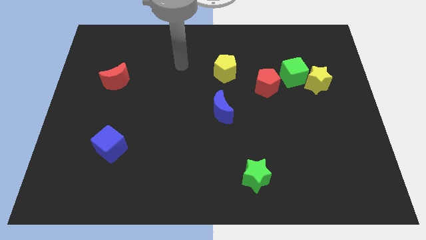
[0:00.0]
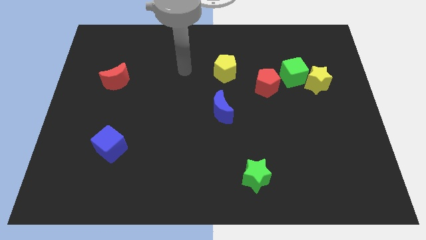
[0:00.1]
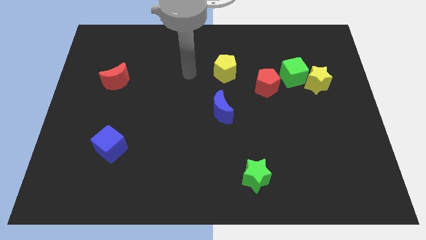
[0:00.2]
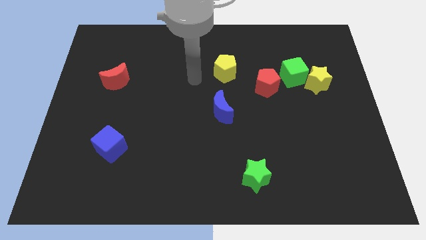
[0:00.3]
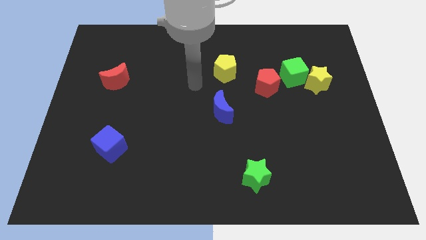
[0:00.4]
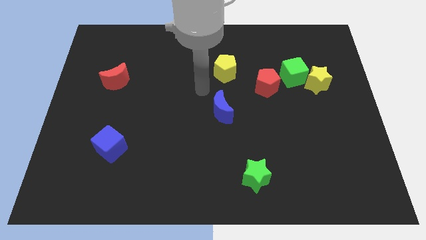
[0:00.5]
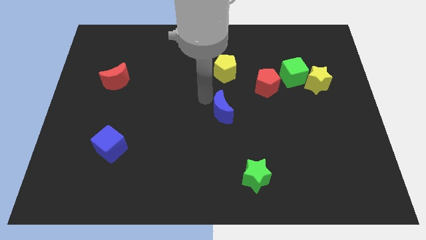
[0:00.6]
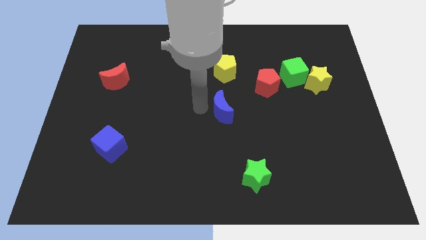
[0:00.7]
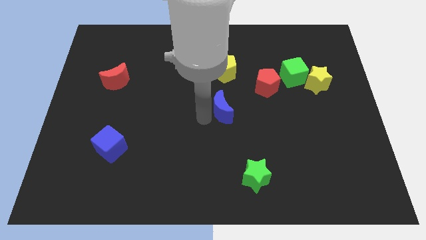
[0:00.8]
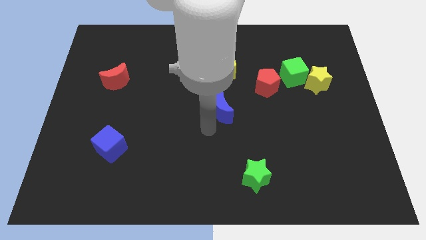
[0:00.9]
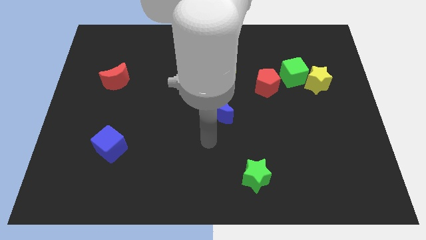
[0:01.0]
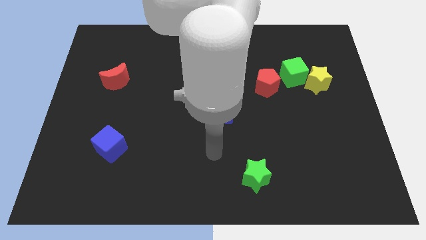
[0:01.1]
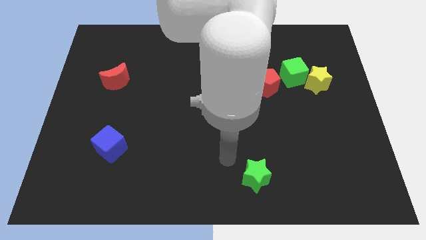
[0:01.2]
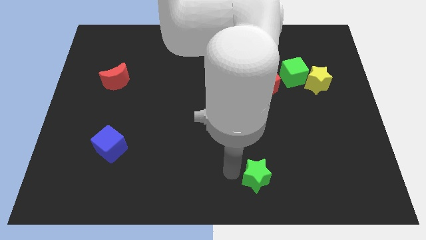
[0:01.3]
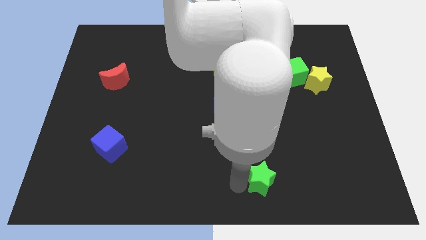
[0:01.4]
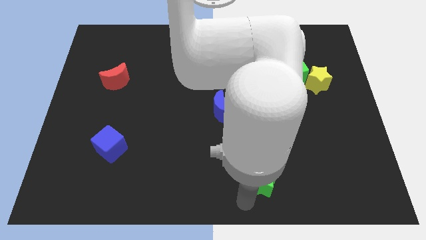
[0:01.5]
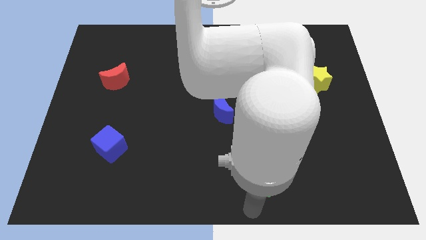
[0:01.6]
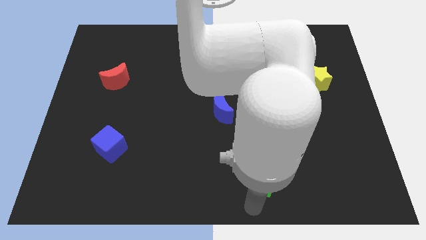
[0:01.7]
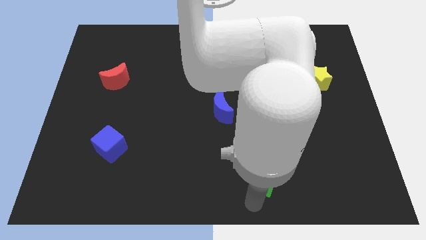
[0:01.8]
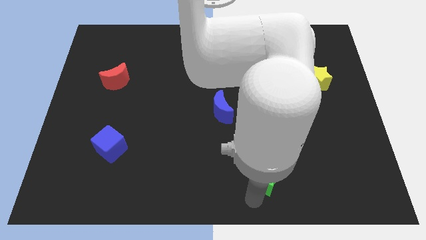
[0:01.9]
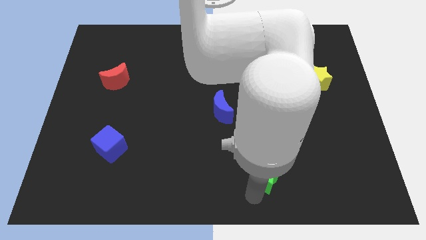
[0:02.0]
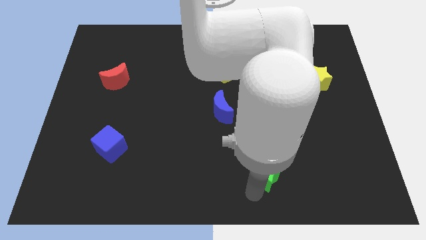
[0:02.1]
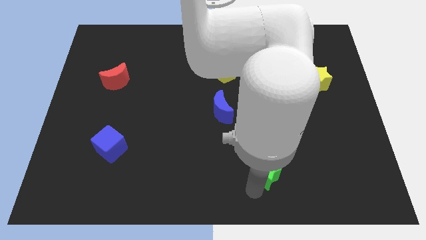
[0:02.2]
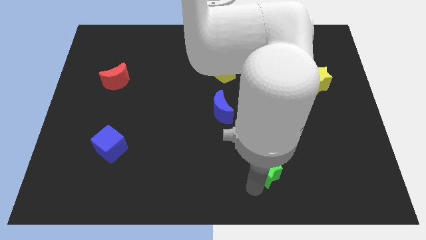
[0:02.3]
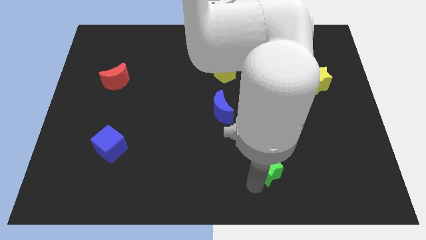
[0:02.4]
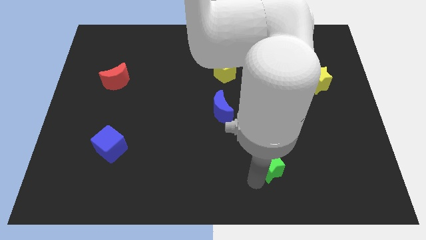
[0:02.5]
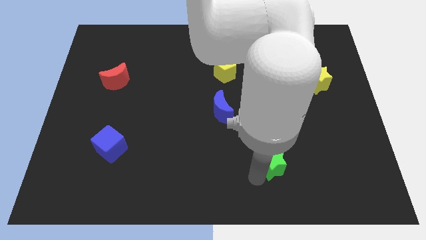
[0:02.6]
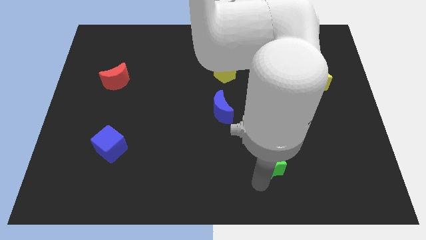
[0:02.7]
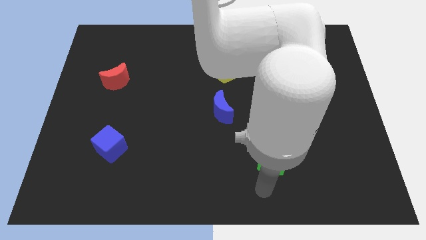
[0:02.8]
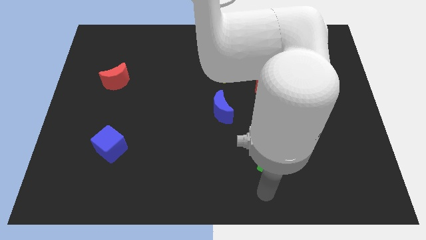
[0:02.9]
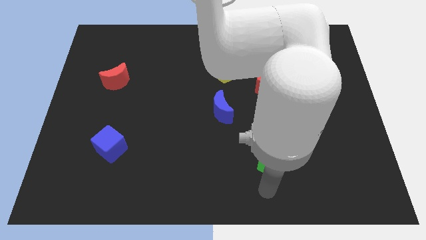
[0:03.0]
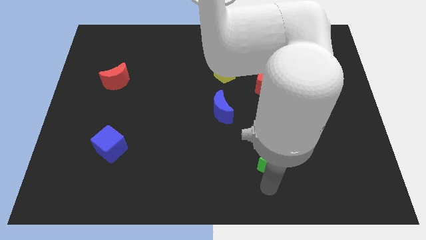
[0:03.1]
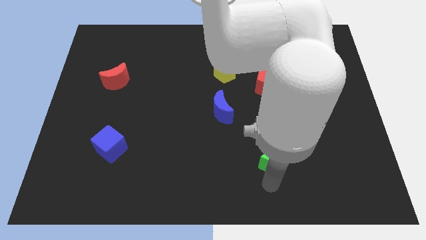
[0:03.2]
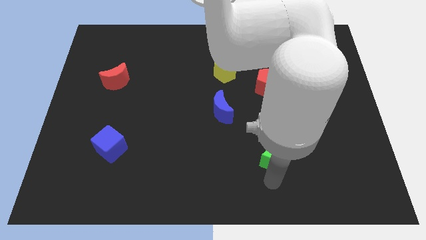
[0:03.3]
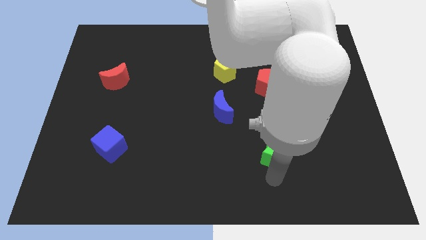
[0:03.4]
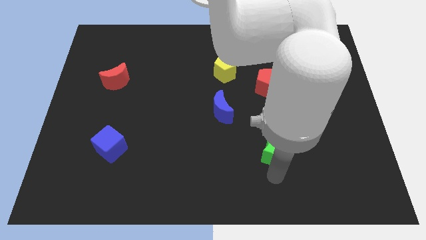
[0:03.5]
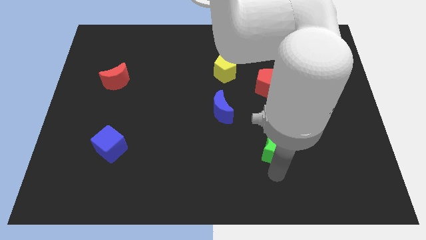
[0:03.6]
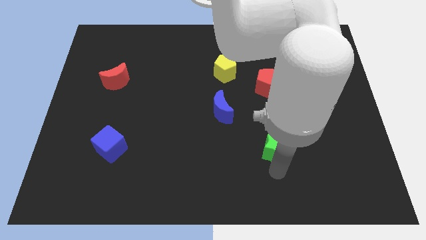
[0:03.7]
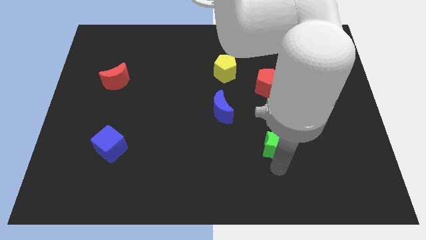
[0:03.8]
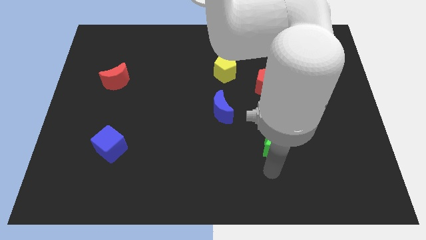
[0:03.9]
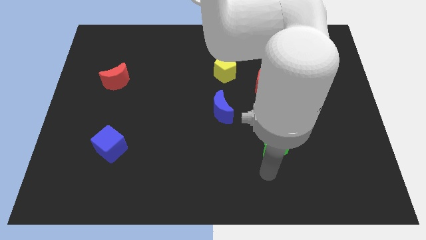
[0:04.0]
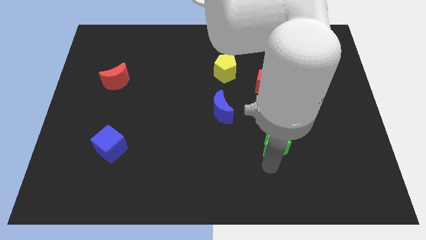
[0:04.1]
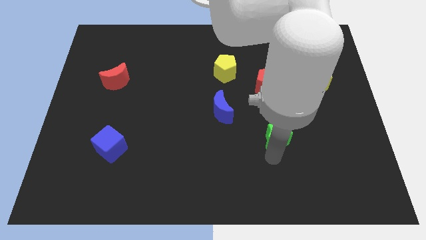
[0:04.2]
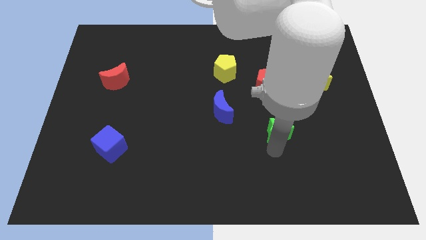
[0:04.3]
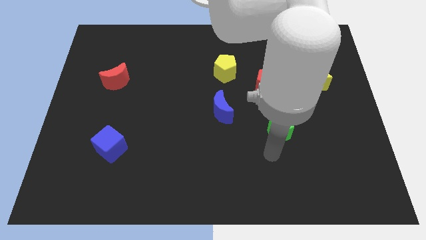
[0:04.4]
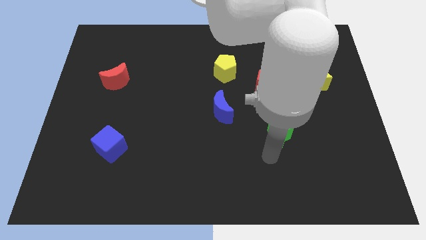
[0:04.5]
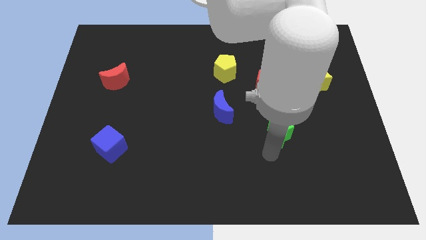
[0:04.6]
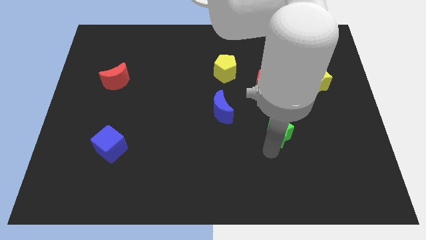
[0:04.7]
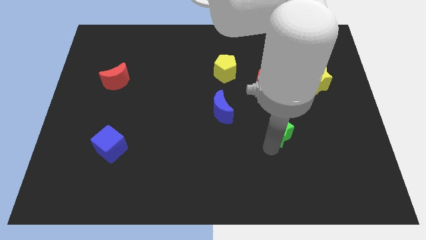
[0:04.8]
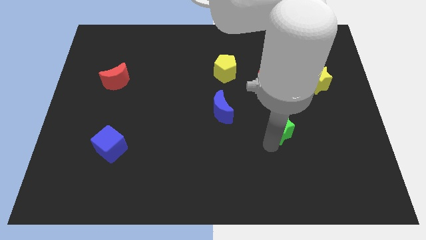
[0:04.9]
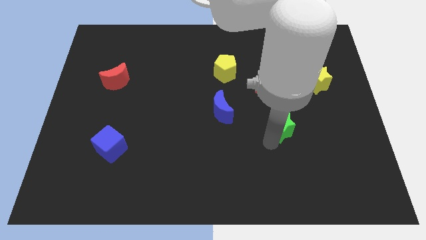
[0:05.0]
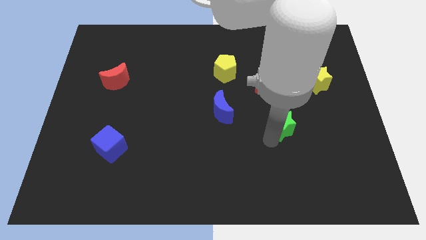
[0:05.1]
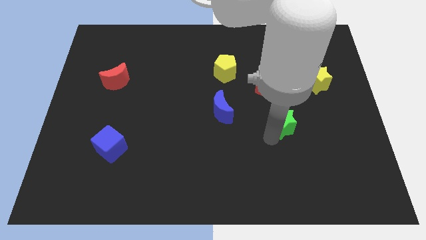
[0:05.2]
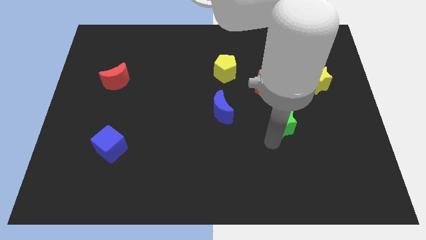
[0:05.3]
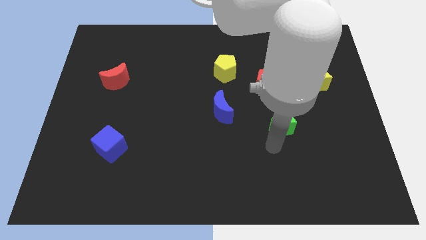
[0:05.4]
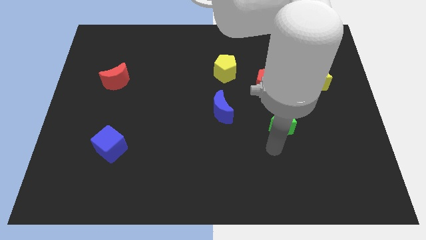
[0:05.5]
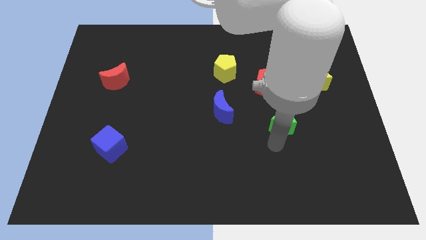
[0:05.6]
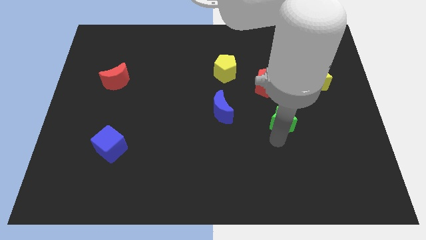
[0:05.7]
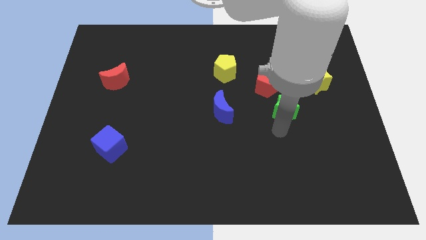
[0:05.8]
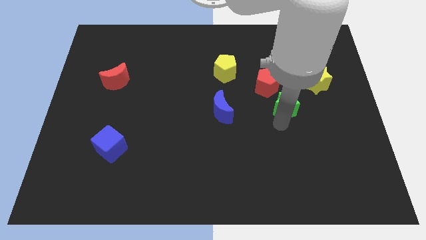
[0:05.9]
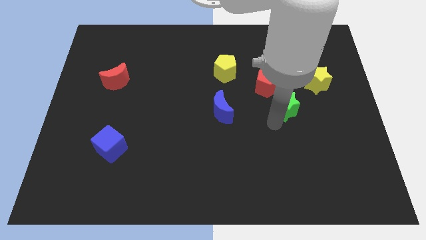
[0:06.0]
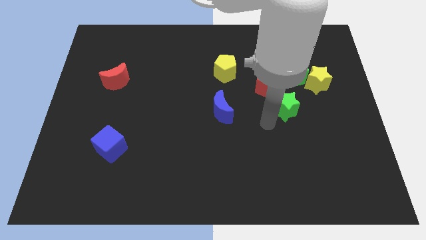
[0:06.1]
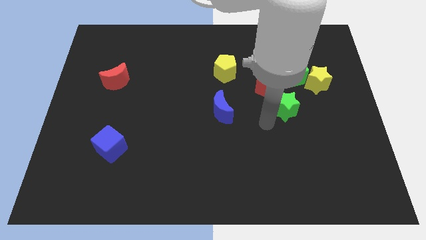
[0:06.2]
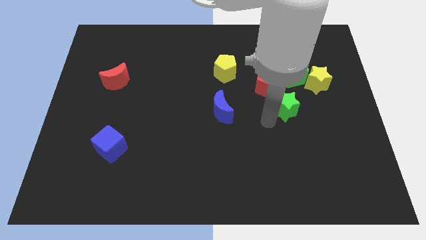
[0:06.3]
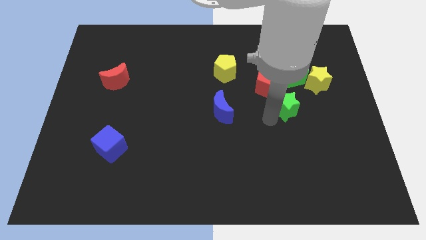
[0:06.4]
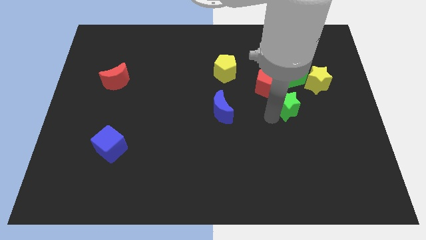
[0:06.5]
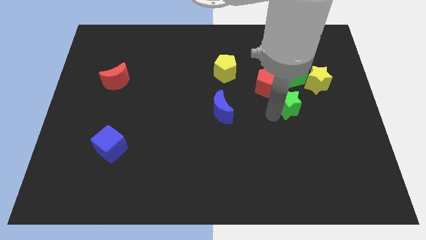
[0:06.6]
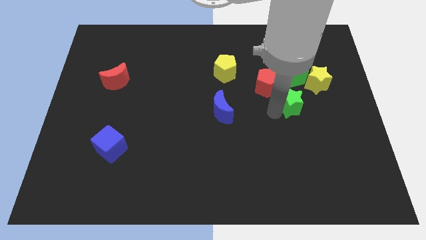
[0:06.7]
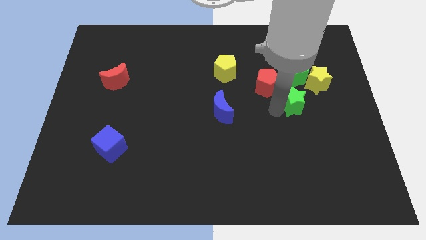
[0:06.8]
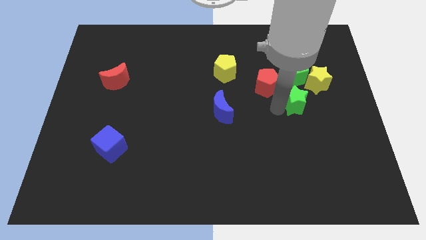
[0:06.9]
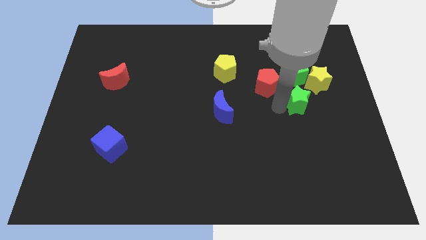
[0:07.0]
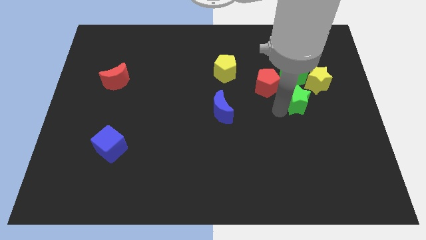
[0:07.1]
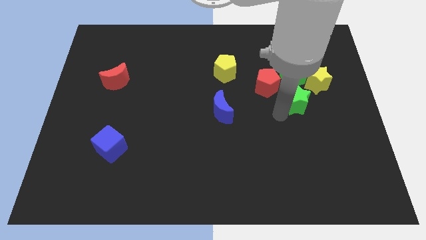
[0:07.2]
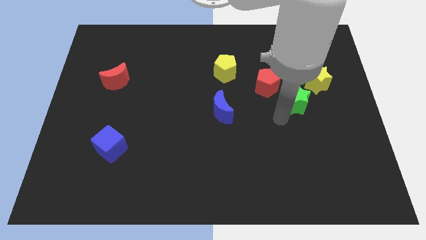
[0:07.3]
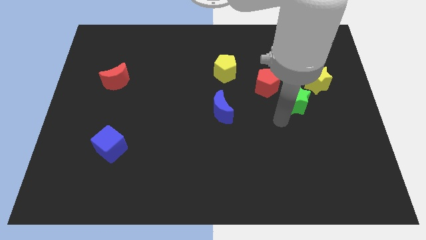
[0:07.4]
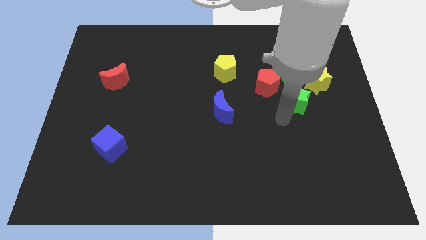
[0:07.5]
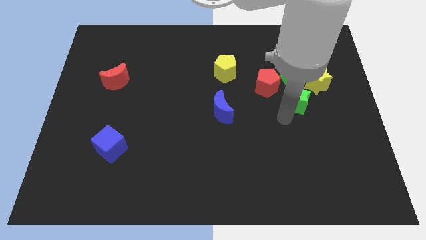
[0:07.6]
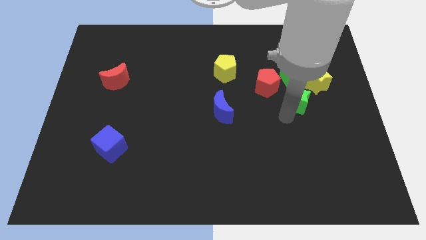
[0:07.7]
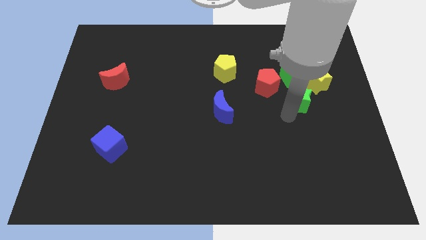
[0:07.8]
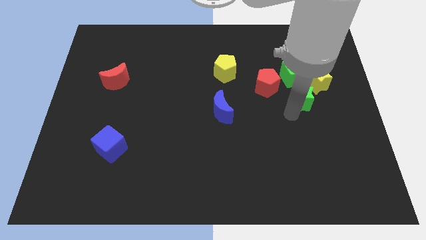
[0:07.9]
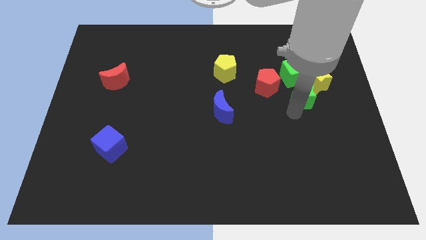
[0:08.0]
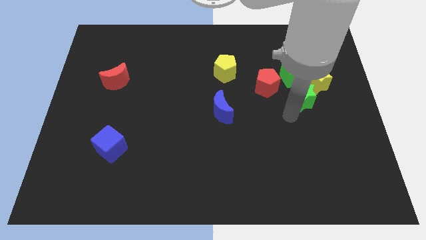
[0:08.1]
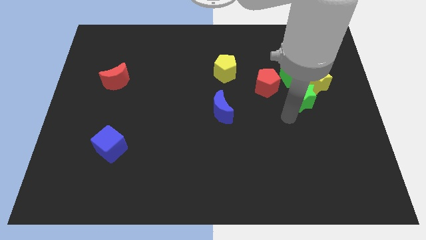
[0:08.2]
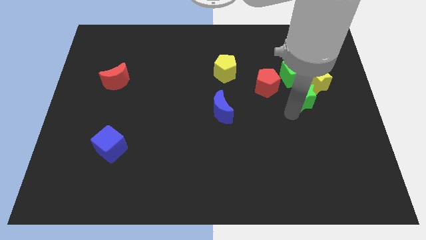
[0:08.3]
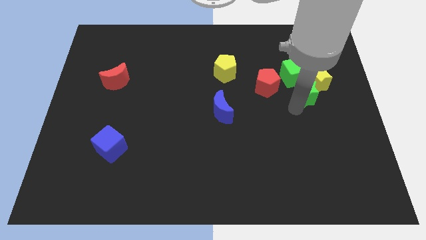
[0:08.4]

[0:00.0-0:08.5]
move the green star to the yellow star
